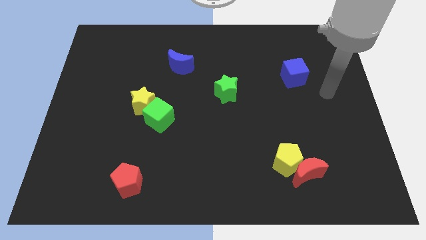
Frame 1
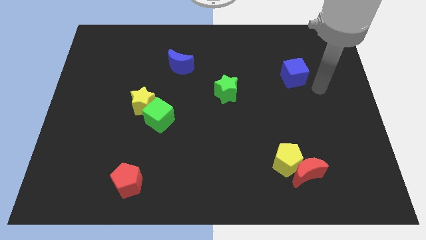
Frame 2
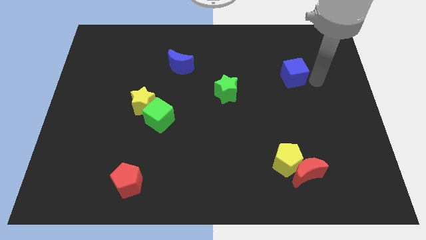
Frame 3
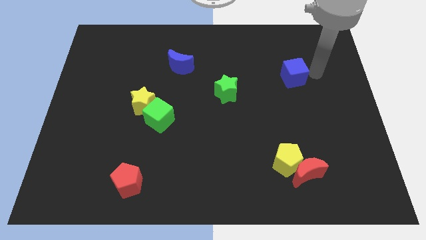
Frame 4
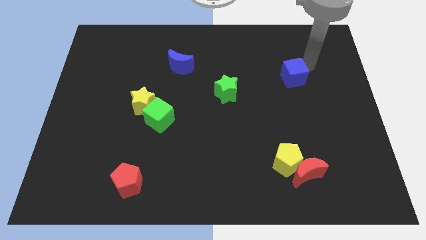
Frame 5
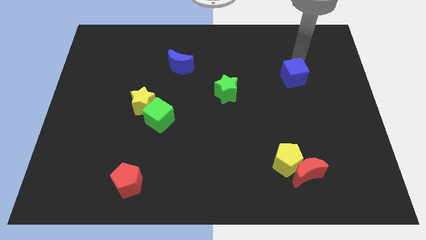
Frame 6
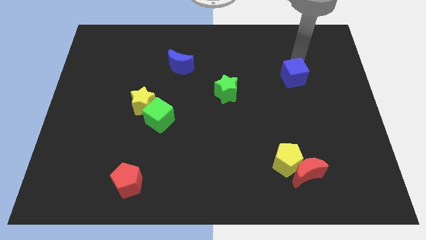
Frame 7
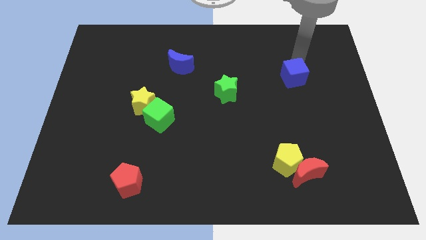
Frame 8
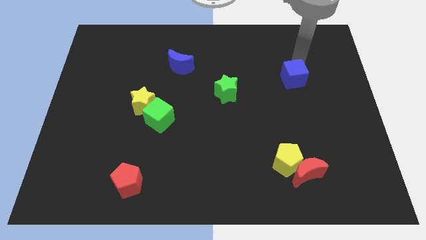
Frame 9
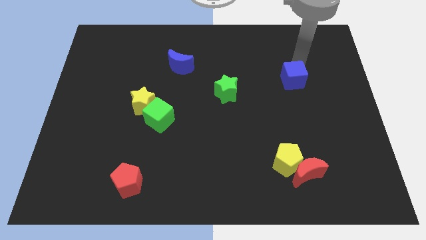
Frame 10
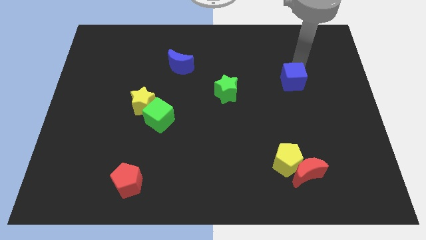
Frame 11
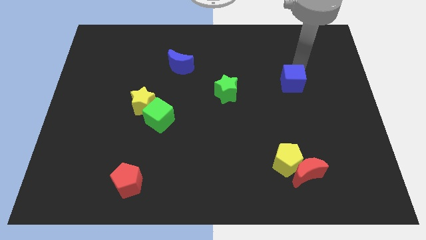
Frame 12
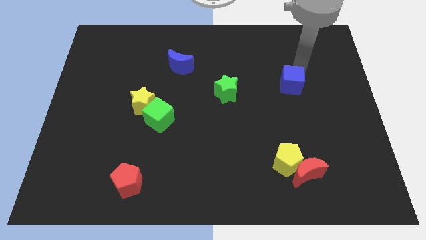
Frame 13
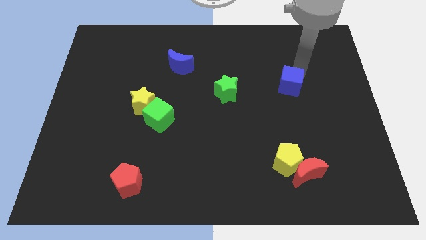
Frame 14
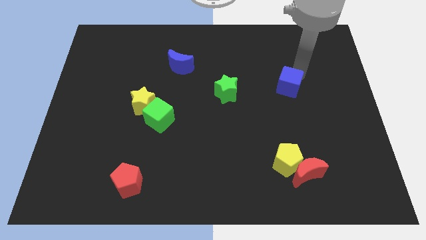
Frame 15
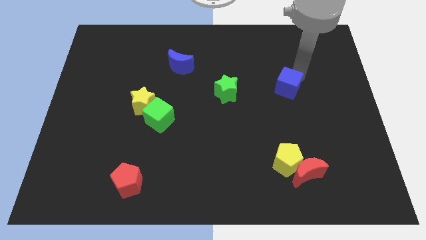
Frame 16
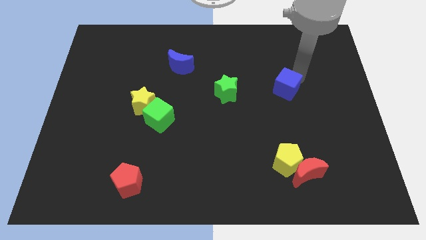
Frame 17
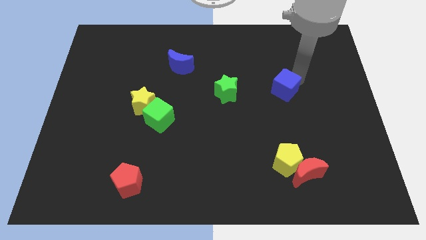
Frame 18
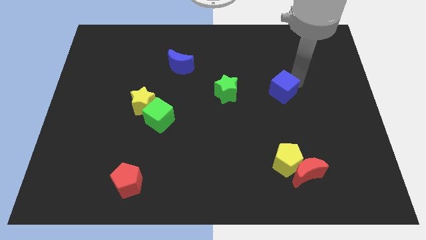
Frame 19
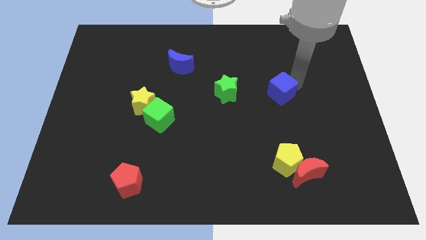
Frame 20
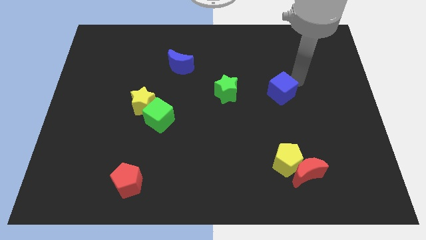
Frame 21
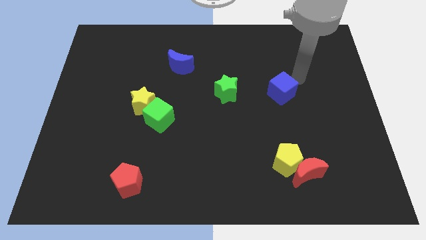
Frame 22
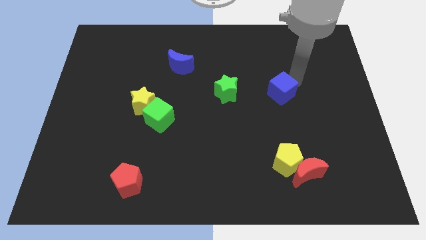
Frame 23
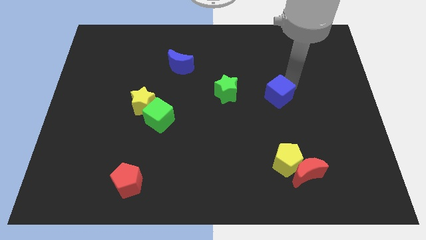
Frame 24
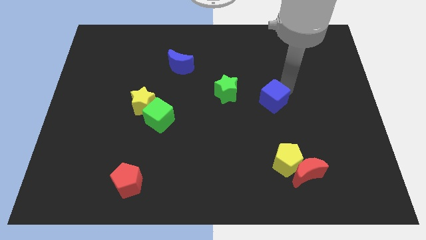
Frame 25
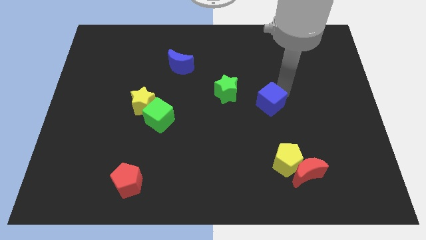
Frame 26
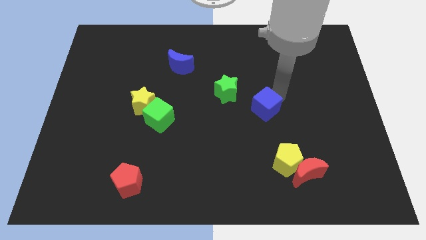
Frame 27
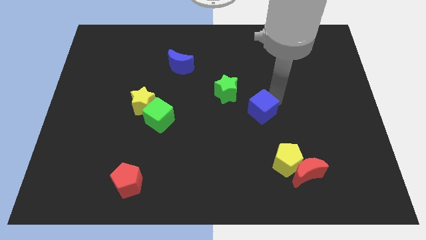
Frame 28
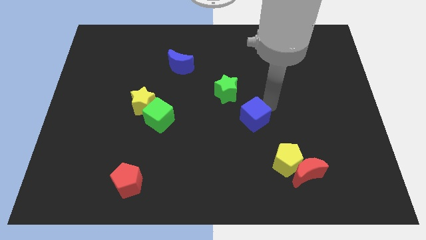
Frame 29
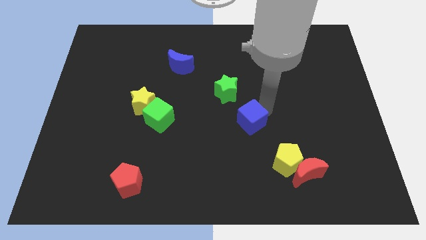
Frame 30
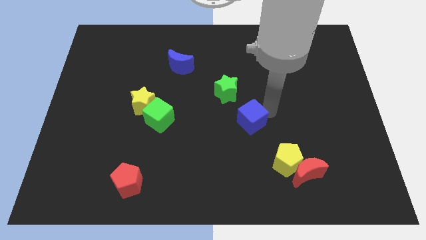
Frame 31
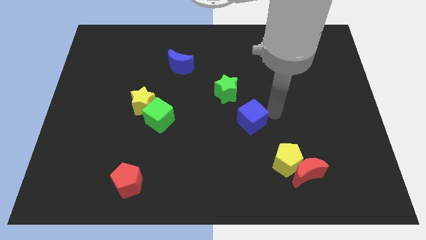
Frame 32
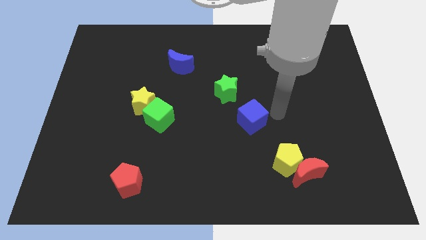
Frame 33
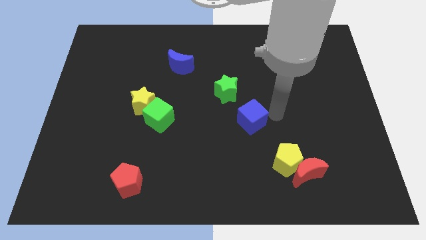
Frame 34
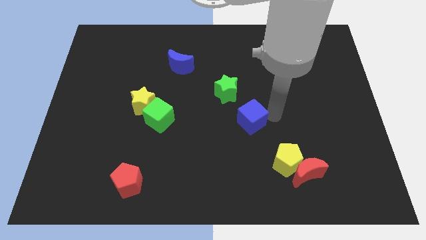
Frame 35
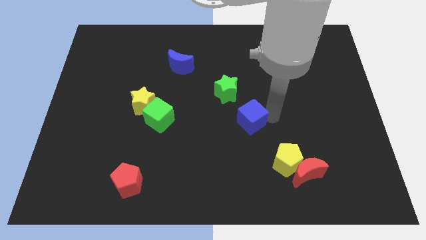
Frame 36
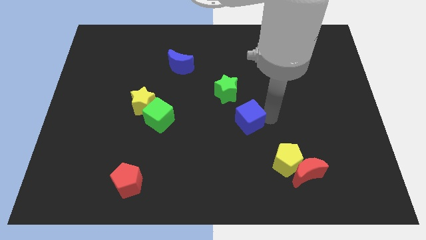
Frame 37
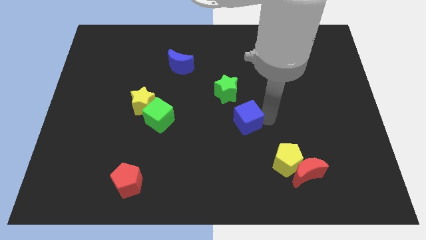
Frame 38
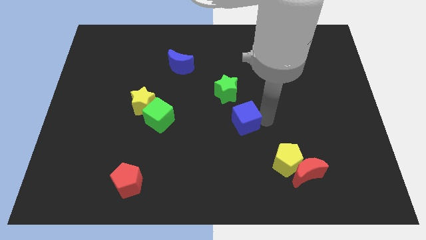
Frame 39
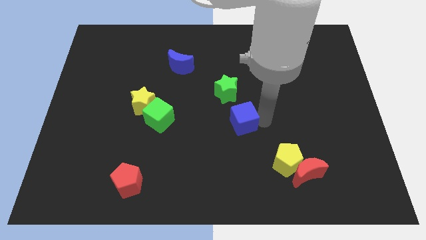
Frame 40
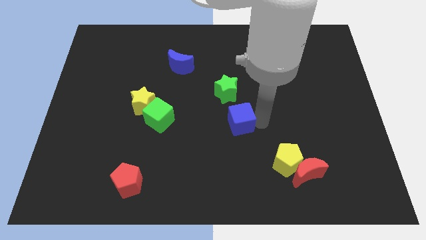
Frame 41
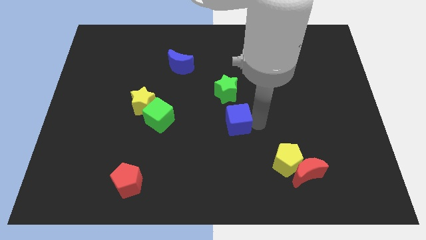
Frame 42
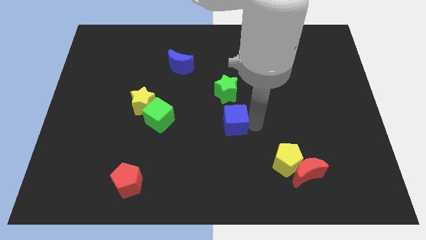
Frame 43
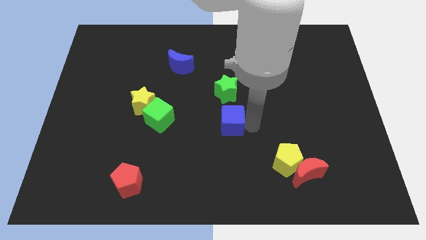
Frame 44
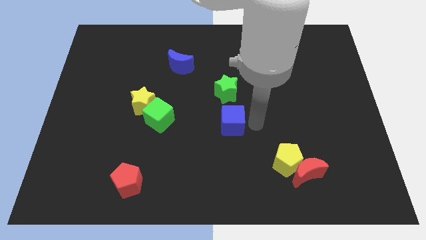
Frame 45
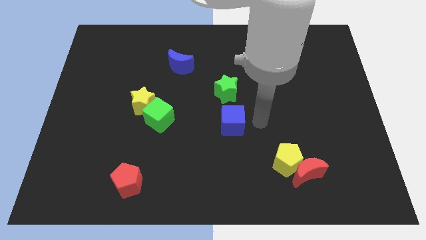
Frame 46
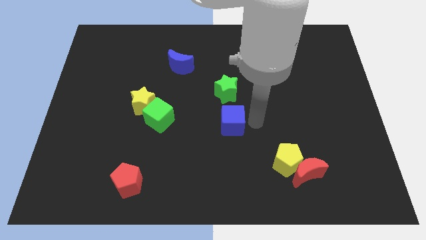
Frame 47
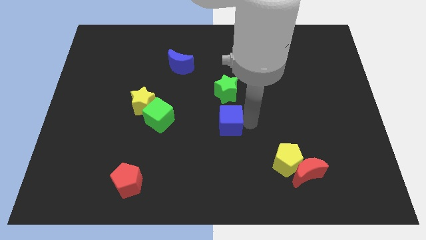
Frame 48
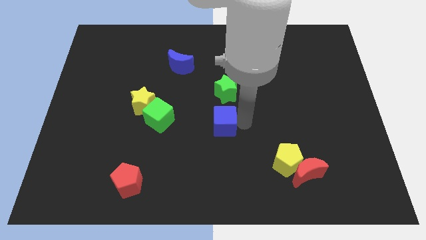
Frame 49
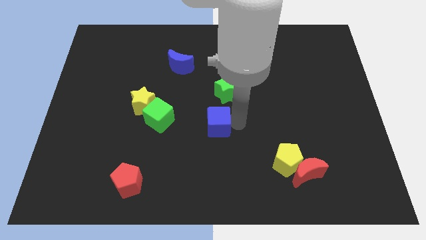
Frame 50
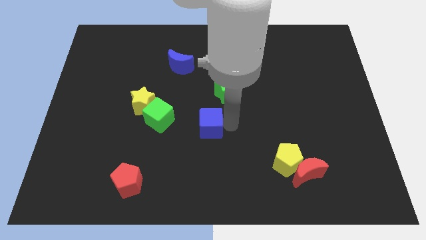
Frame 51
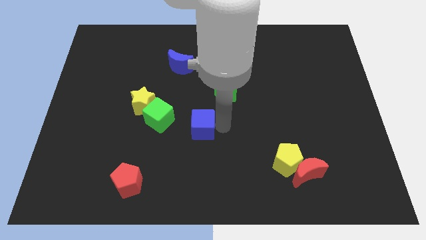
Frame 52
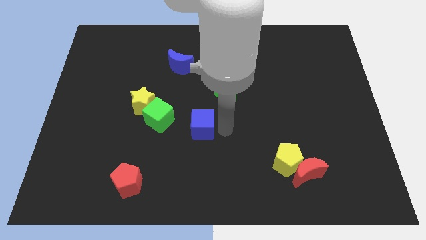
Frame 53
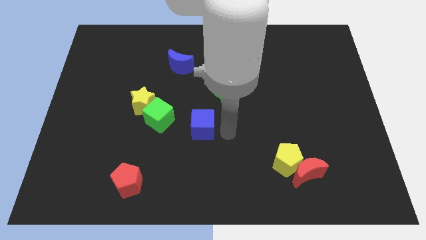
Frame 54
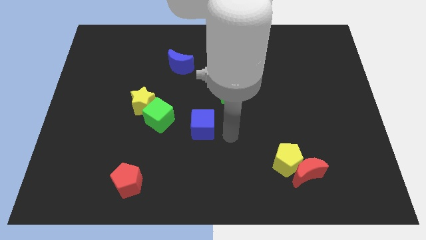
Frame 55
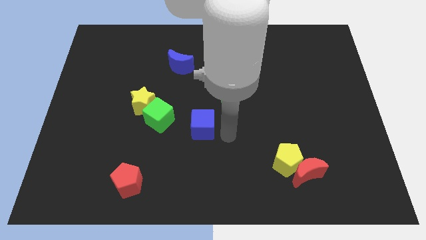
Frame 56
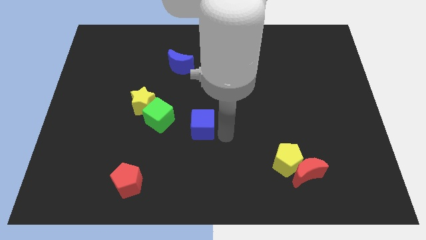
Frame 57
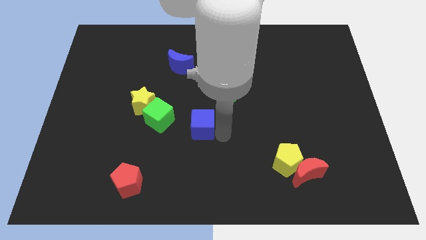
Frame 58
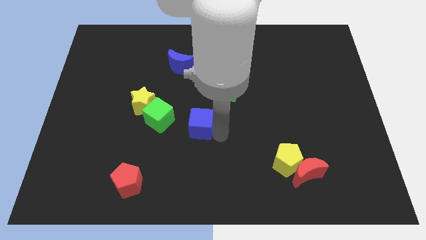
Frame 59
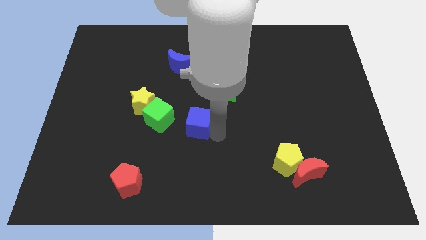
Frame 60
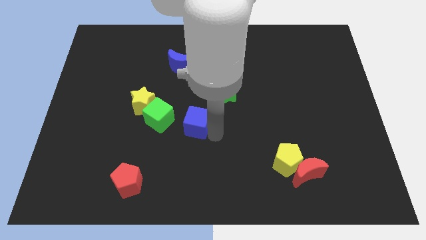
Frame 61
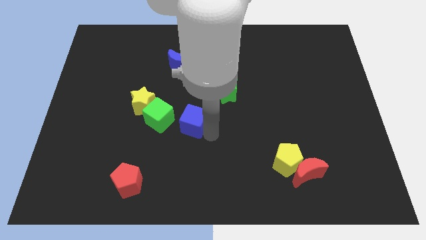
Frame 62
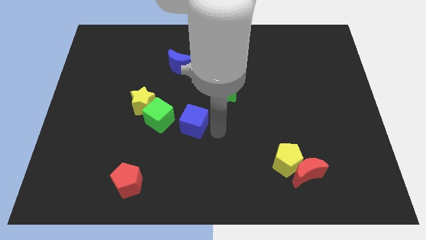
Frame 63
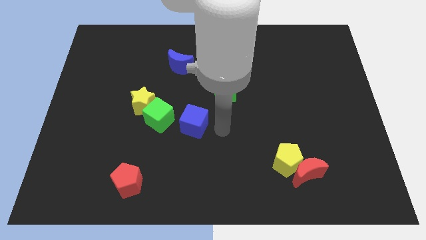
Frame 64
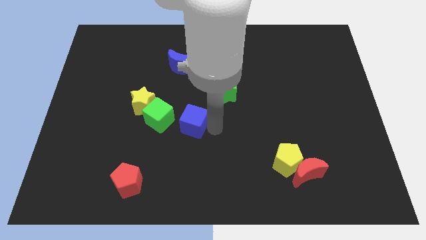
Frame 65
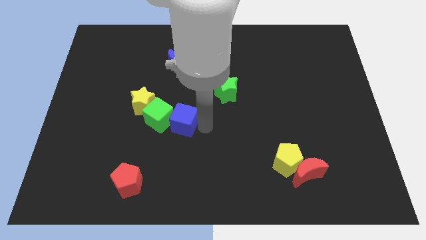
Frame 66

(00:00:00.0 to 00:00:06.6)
put the blue cube next to the green cube

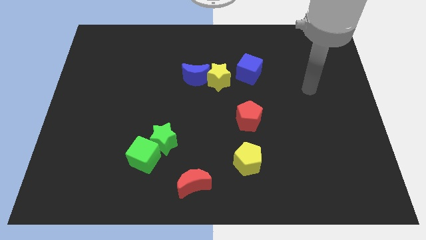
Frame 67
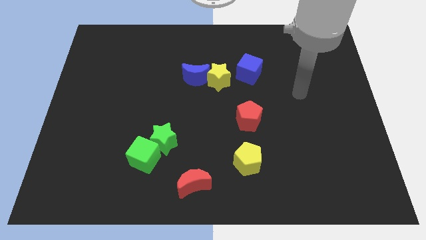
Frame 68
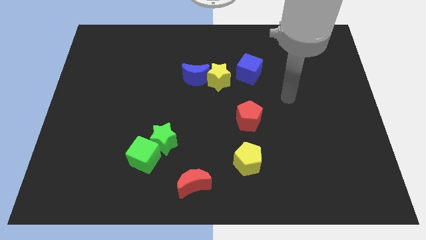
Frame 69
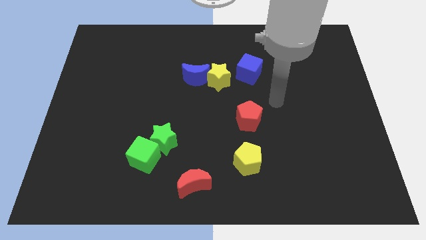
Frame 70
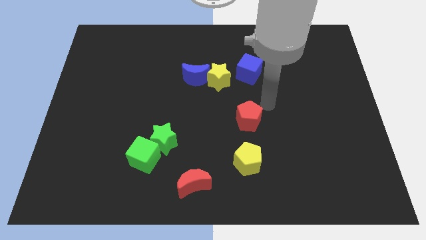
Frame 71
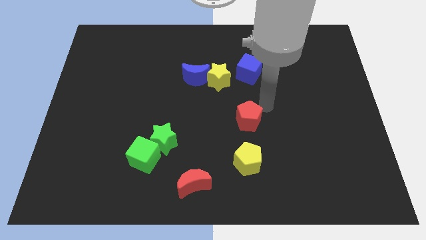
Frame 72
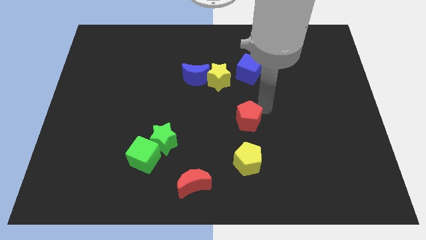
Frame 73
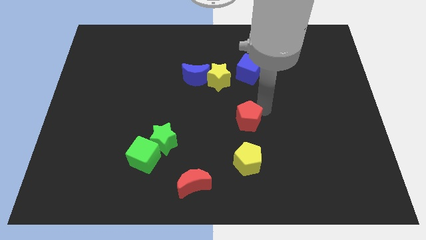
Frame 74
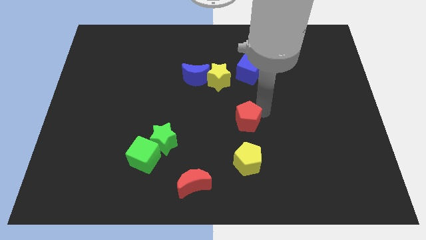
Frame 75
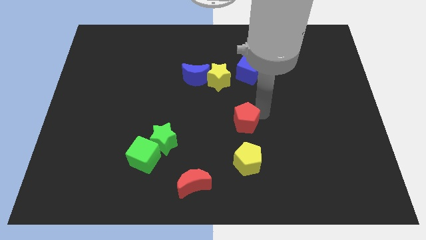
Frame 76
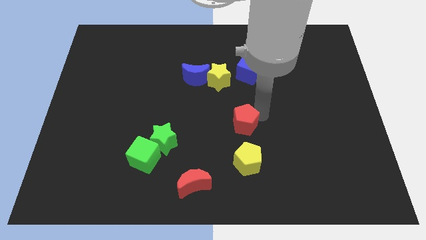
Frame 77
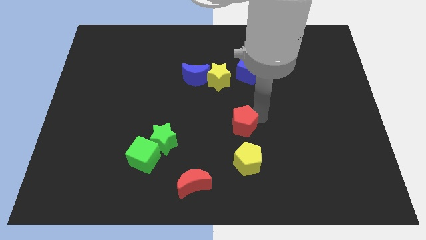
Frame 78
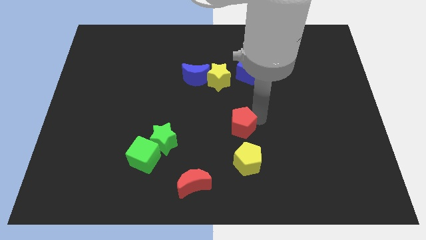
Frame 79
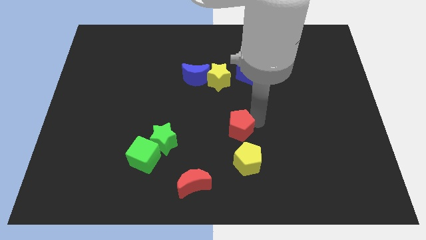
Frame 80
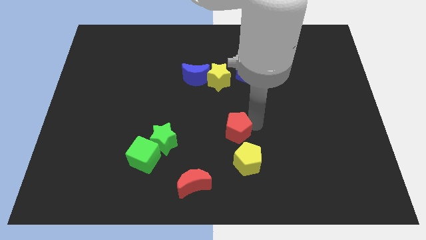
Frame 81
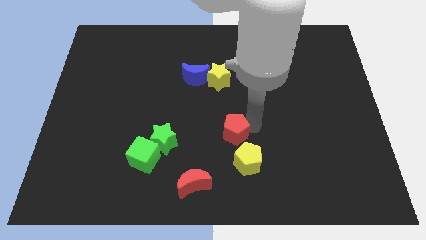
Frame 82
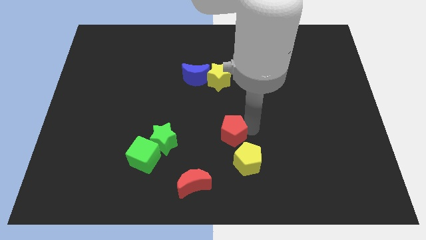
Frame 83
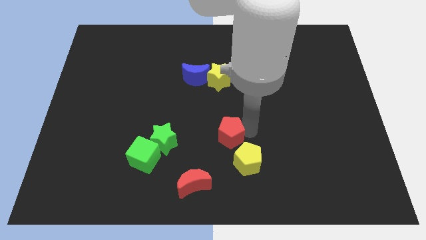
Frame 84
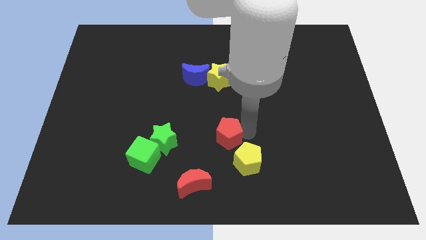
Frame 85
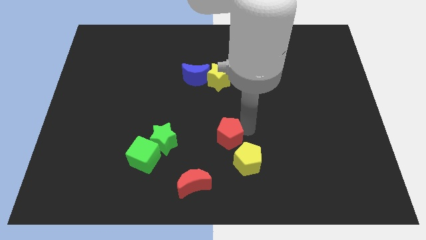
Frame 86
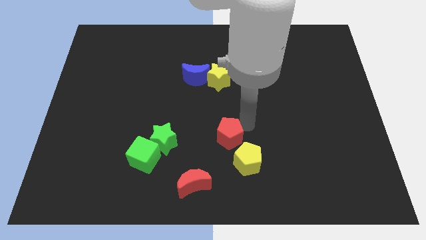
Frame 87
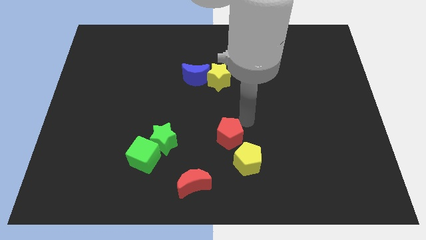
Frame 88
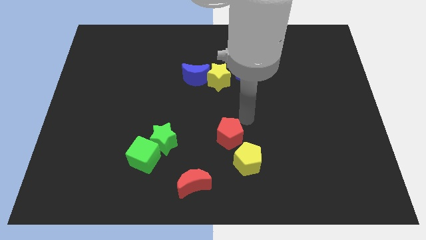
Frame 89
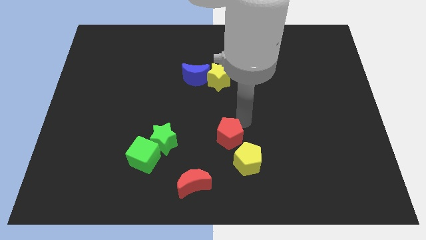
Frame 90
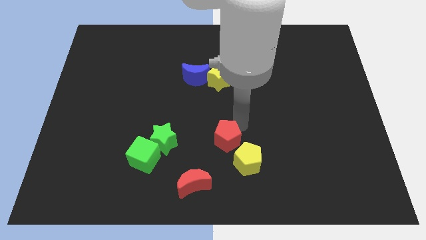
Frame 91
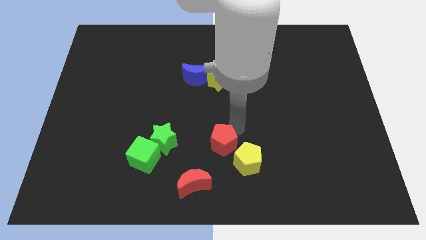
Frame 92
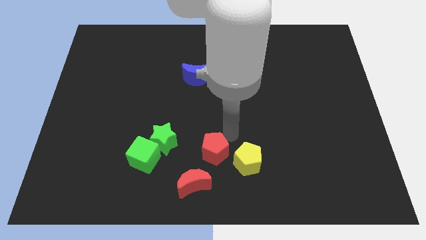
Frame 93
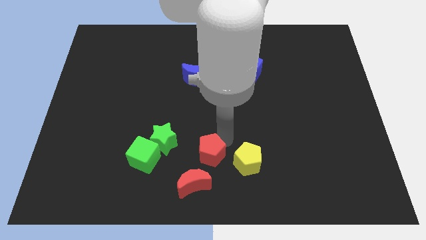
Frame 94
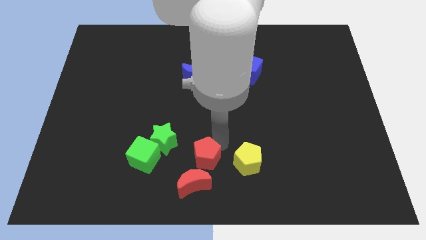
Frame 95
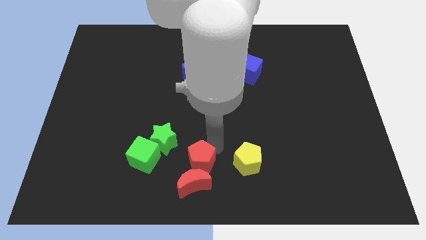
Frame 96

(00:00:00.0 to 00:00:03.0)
push the red pentagon towards the red moon
